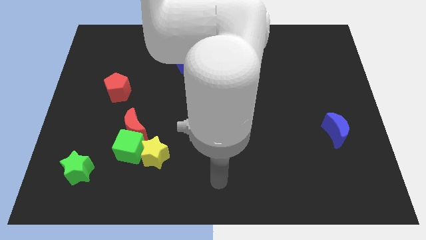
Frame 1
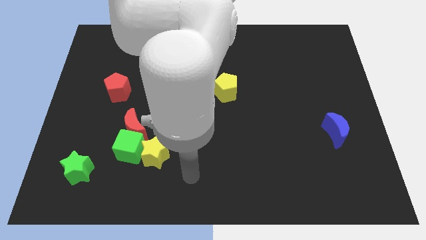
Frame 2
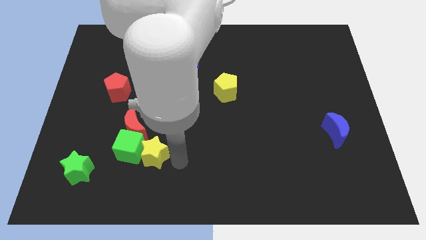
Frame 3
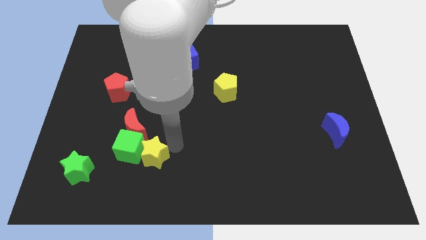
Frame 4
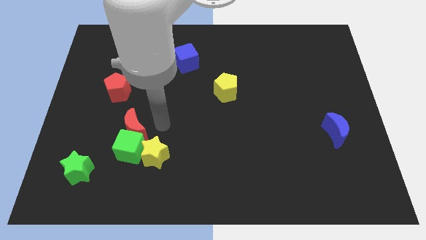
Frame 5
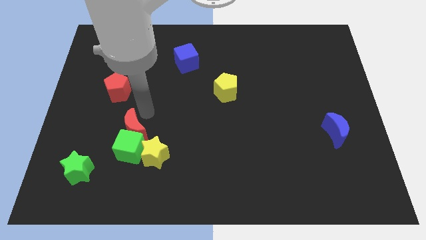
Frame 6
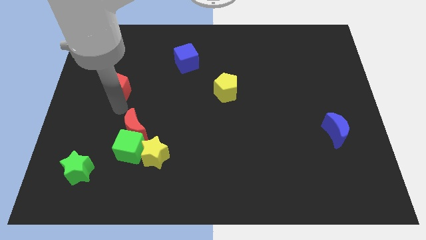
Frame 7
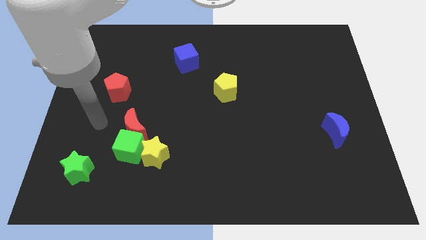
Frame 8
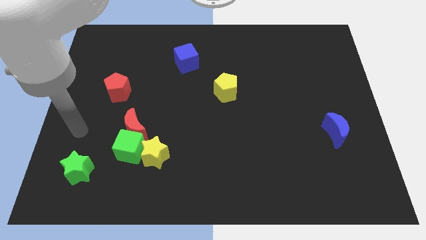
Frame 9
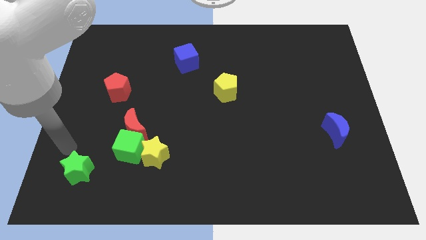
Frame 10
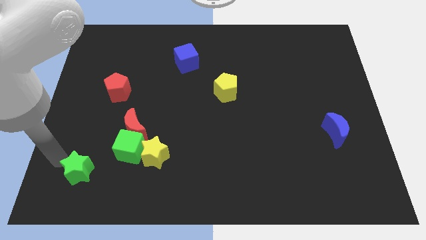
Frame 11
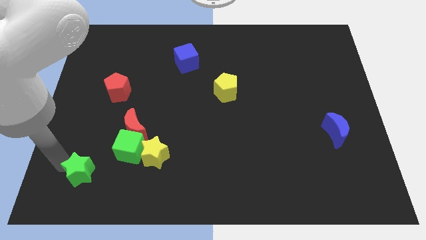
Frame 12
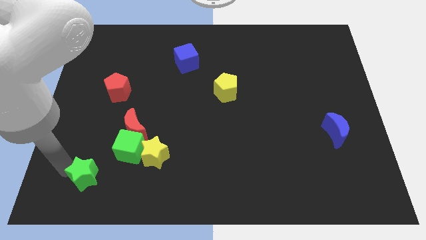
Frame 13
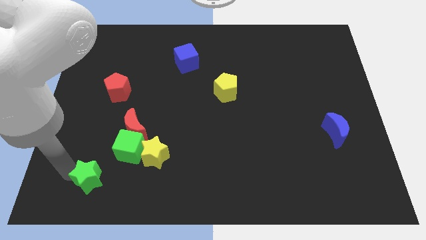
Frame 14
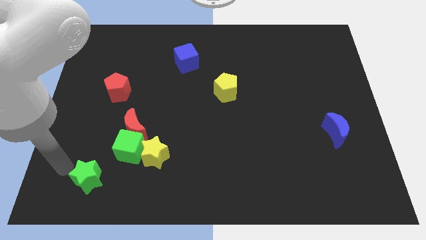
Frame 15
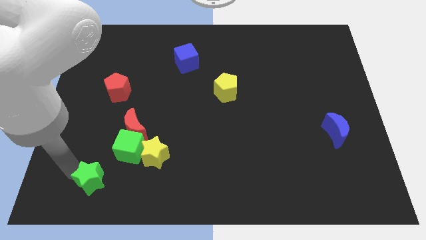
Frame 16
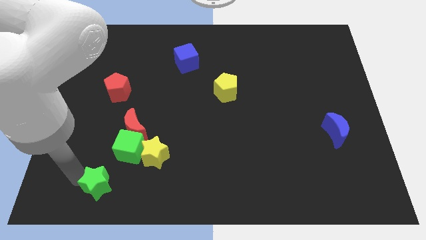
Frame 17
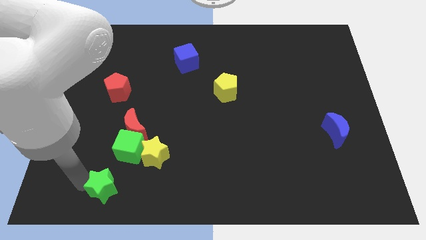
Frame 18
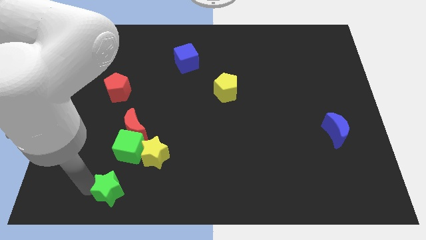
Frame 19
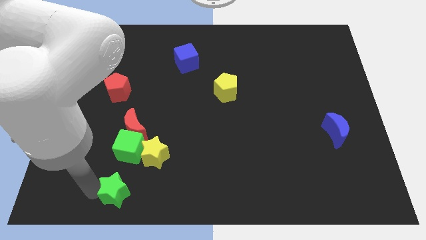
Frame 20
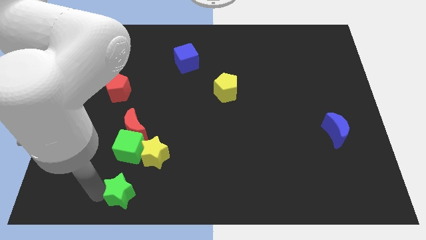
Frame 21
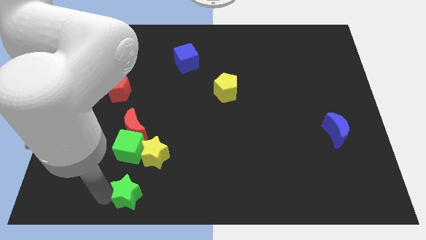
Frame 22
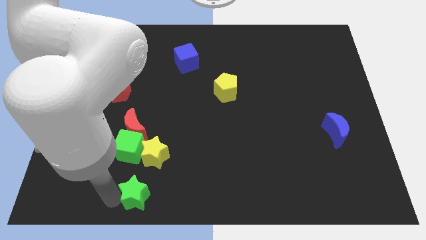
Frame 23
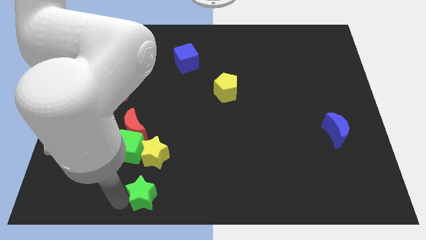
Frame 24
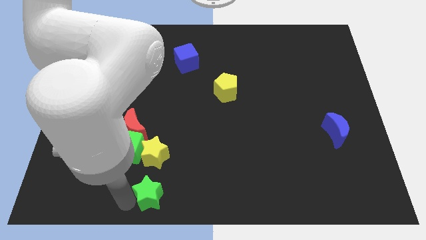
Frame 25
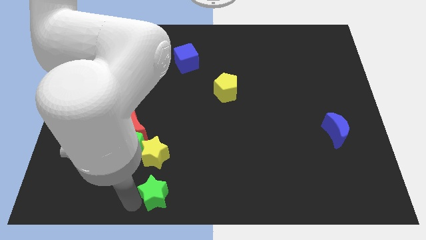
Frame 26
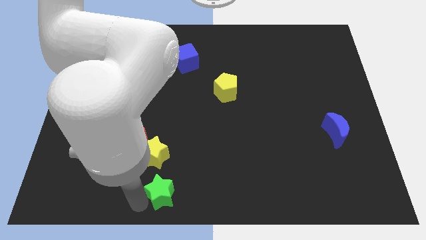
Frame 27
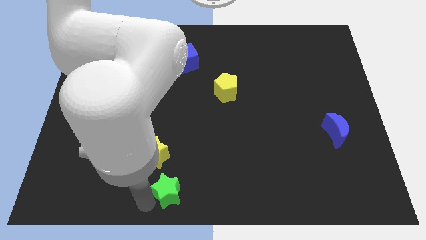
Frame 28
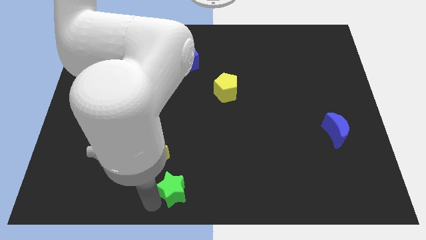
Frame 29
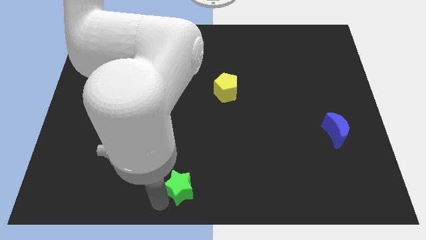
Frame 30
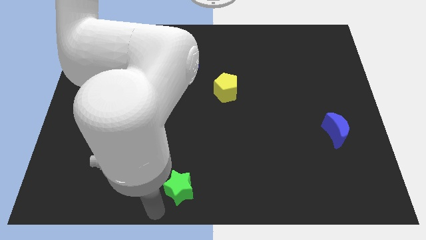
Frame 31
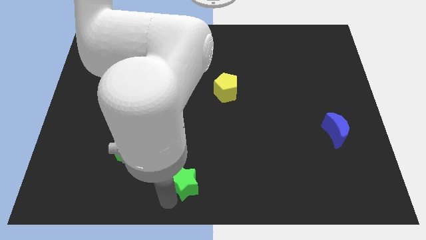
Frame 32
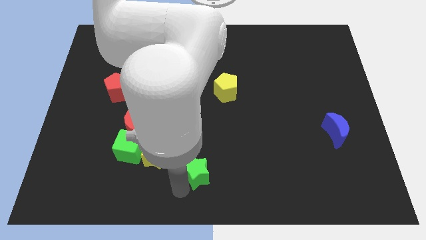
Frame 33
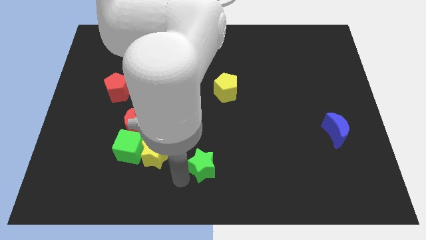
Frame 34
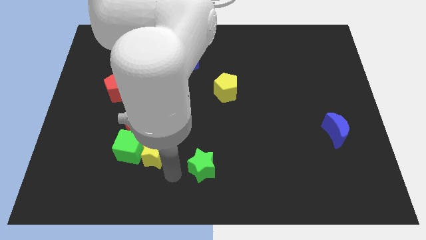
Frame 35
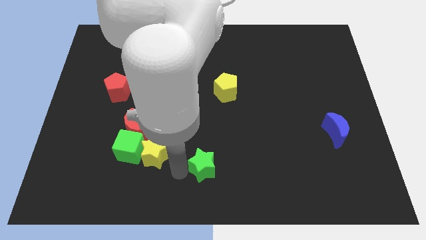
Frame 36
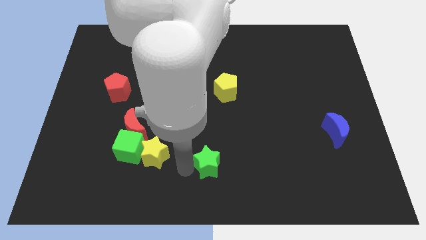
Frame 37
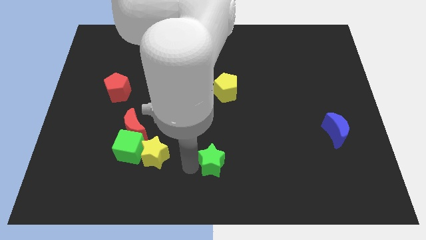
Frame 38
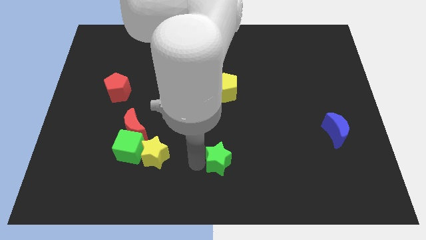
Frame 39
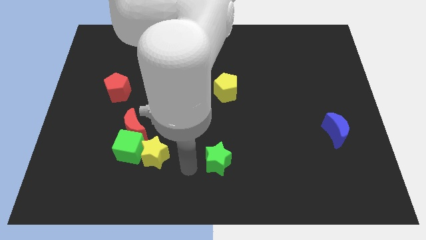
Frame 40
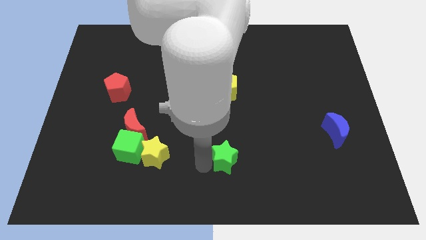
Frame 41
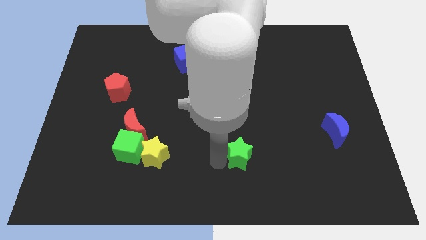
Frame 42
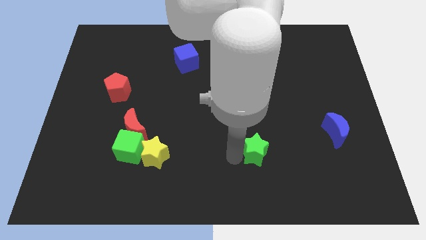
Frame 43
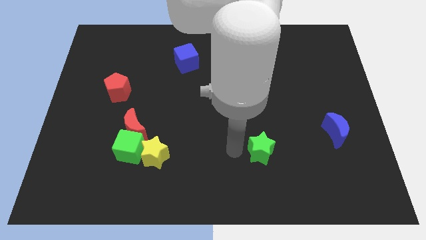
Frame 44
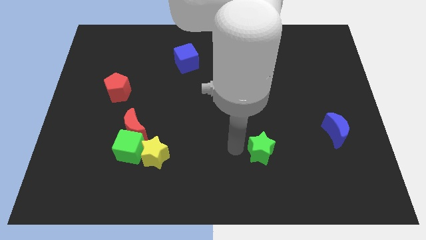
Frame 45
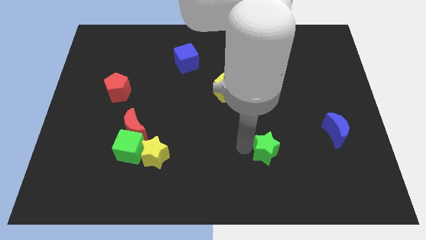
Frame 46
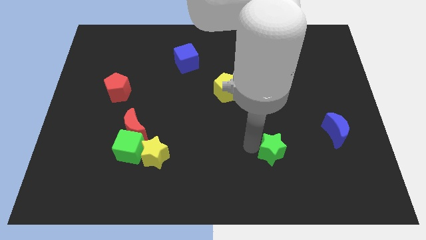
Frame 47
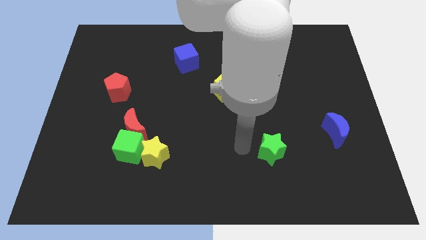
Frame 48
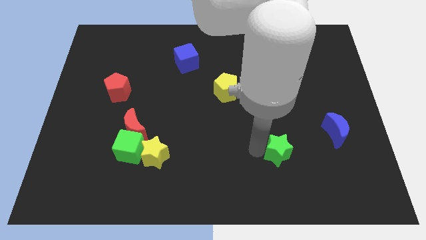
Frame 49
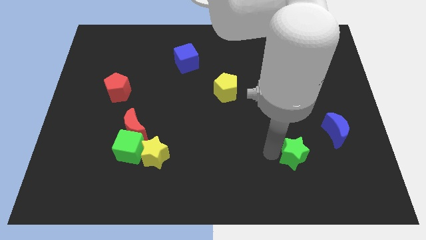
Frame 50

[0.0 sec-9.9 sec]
move the green star diagonally down and to the left of the blue moon

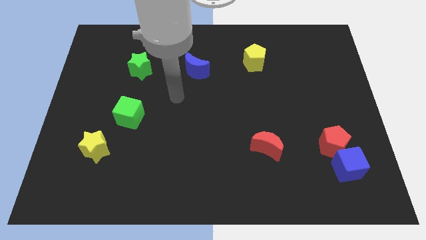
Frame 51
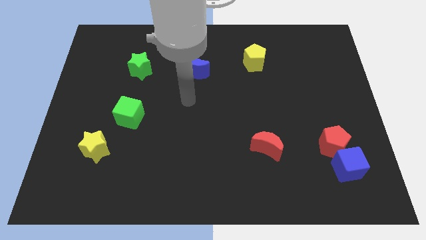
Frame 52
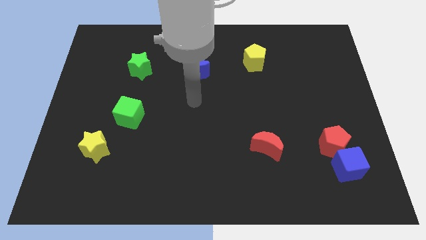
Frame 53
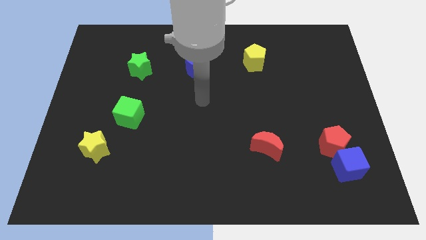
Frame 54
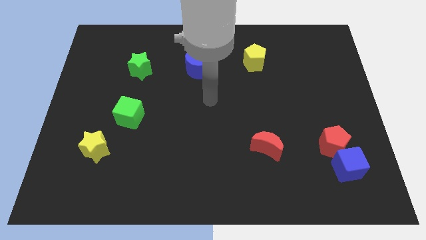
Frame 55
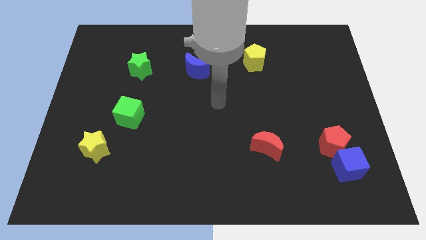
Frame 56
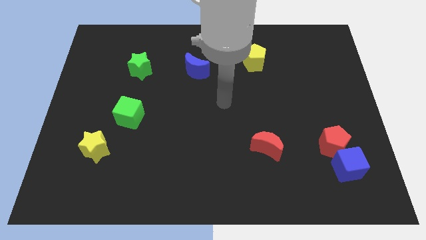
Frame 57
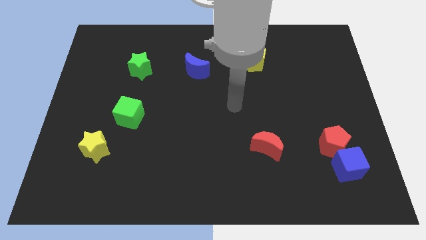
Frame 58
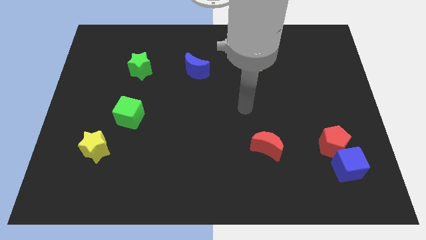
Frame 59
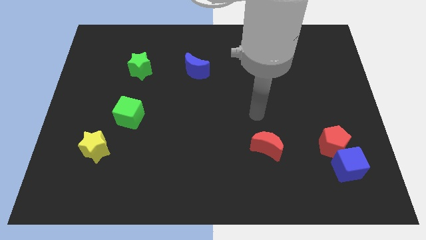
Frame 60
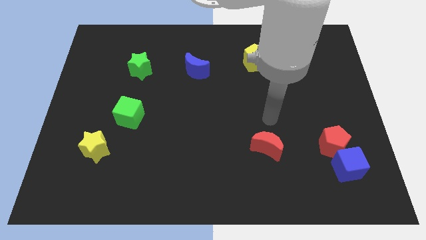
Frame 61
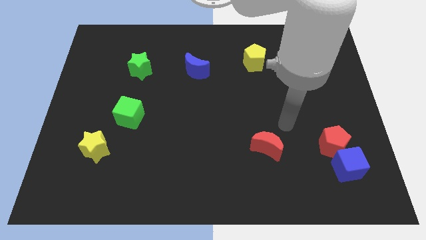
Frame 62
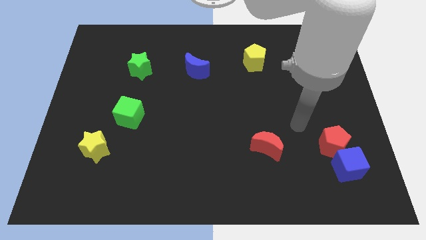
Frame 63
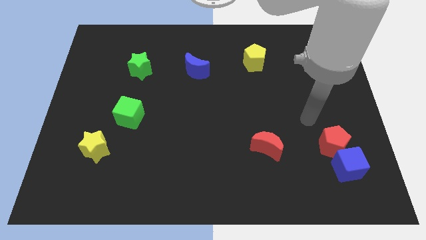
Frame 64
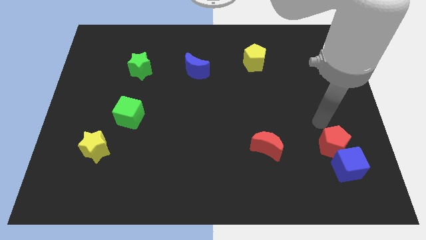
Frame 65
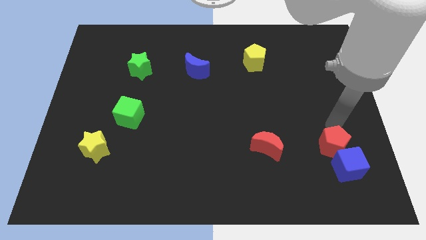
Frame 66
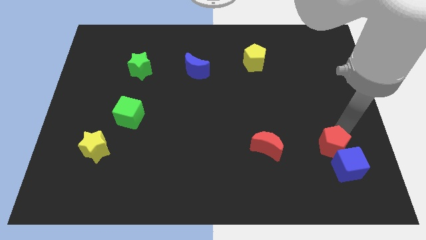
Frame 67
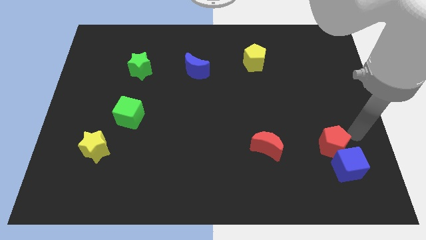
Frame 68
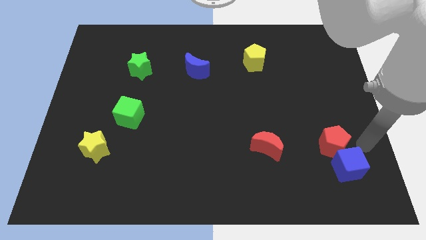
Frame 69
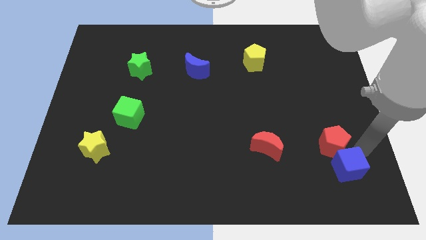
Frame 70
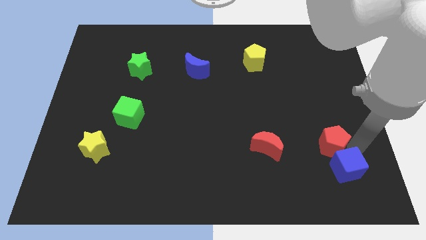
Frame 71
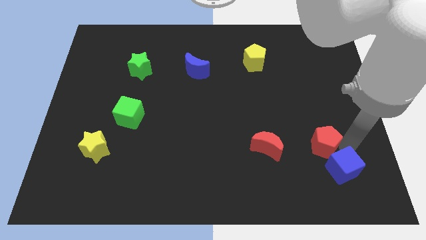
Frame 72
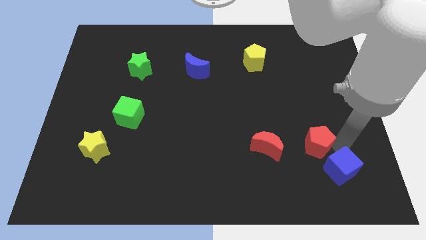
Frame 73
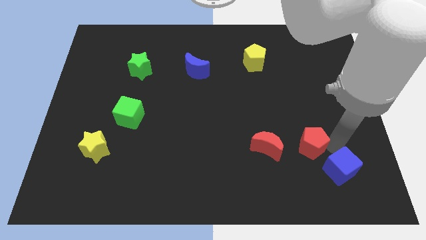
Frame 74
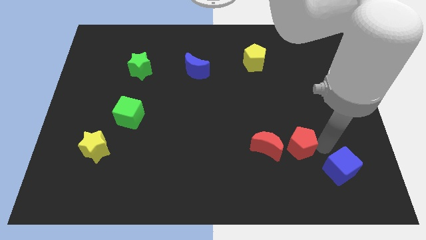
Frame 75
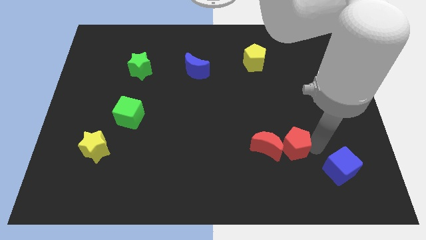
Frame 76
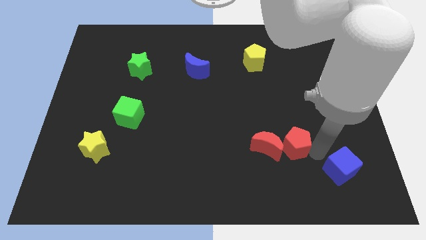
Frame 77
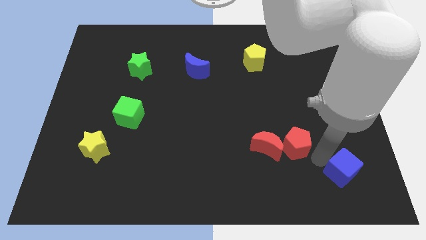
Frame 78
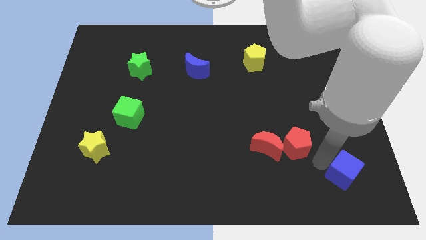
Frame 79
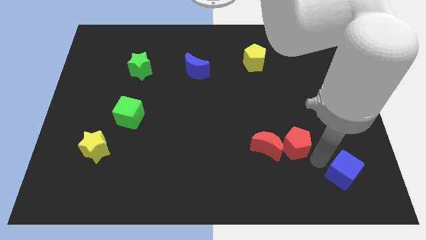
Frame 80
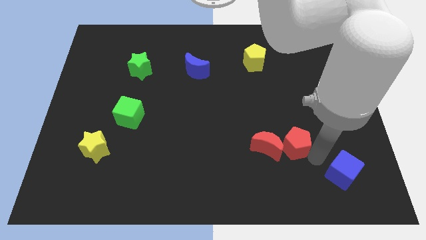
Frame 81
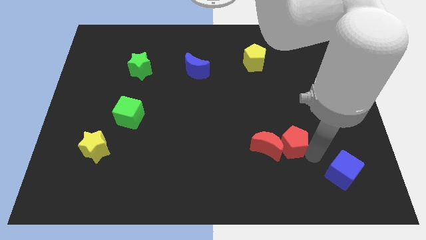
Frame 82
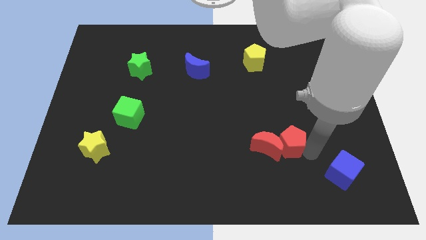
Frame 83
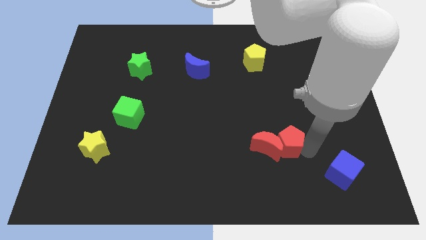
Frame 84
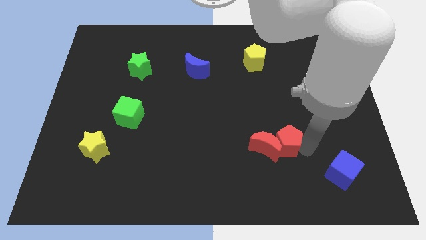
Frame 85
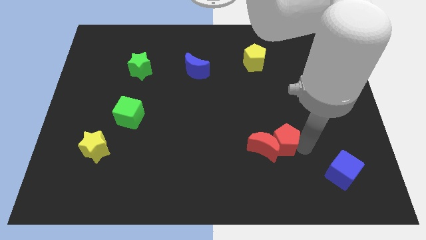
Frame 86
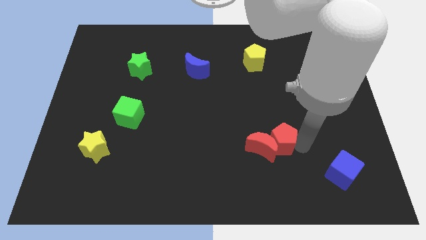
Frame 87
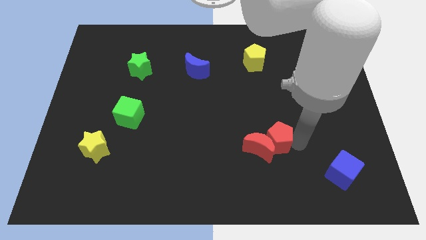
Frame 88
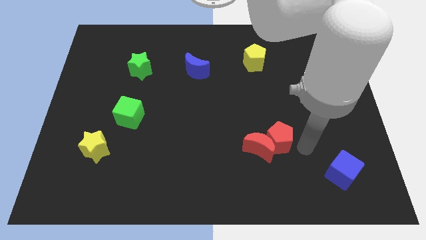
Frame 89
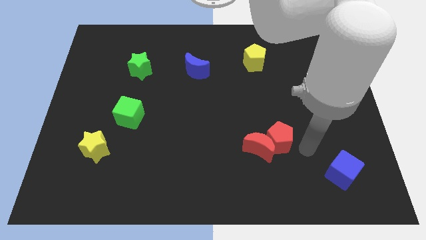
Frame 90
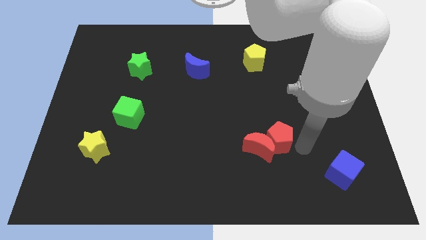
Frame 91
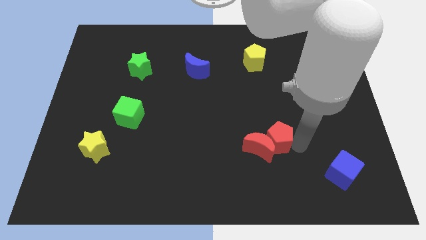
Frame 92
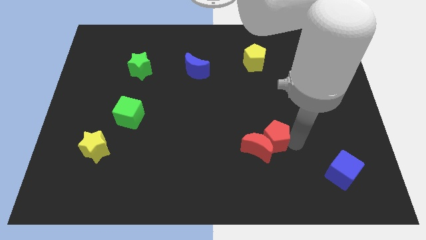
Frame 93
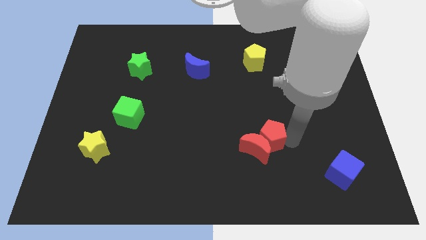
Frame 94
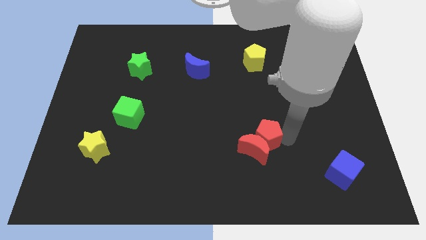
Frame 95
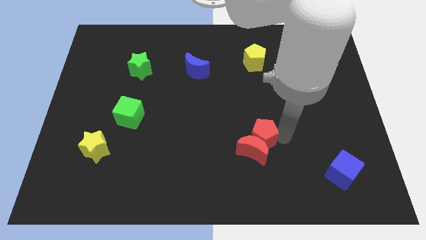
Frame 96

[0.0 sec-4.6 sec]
push the red pentagon to the top left of the red moon
